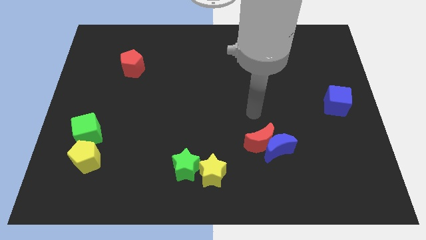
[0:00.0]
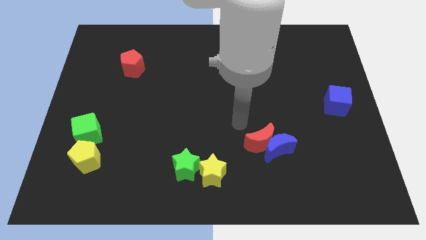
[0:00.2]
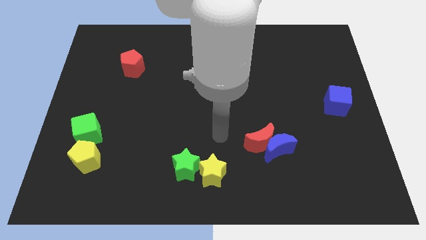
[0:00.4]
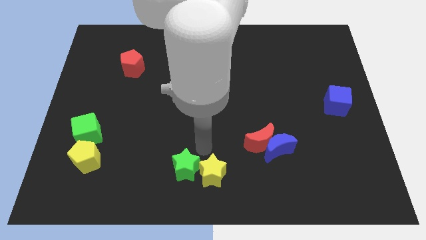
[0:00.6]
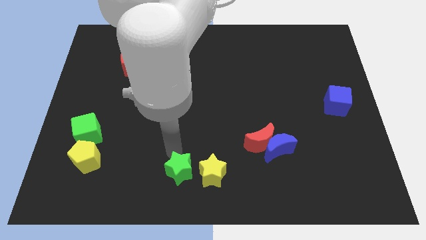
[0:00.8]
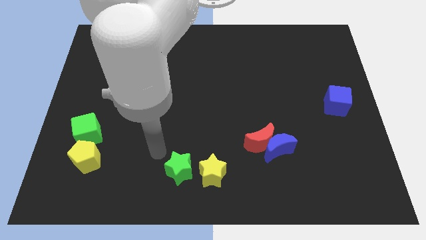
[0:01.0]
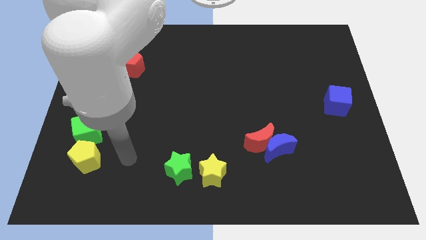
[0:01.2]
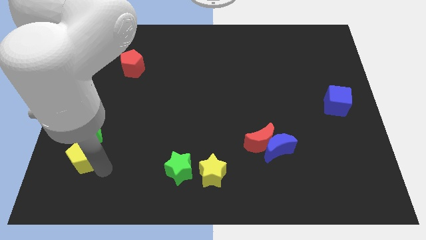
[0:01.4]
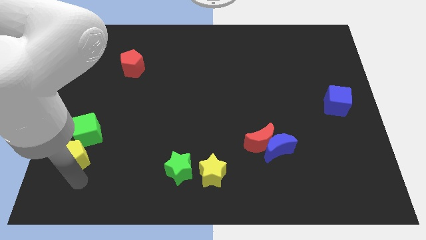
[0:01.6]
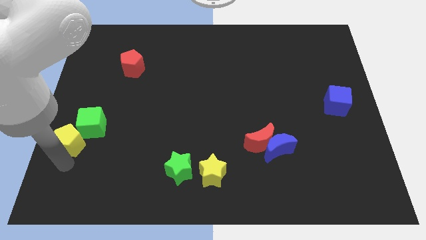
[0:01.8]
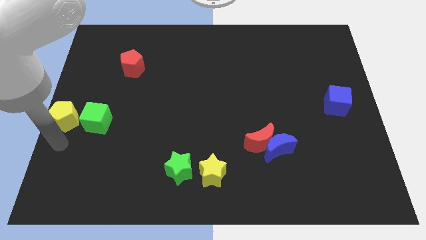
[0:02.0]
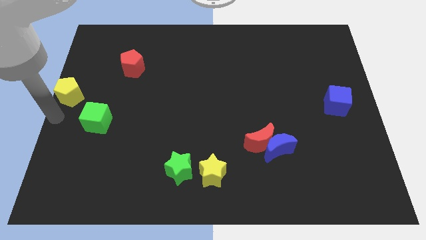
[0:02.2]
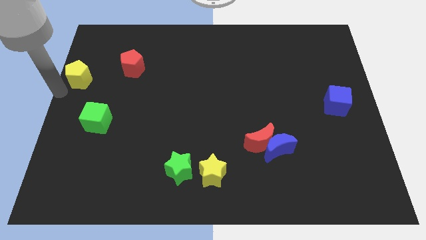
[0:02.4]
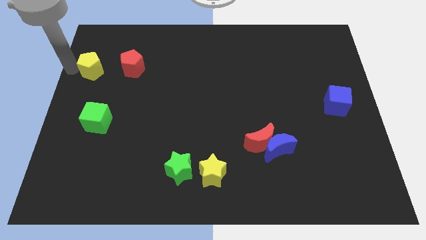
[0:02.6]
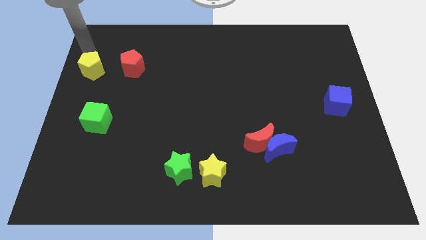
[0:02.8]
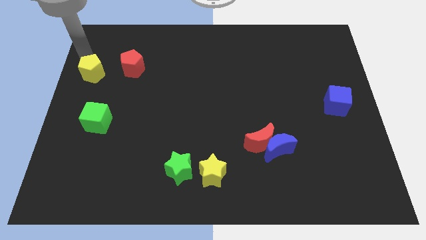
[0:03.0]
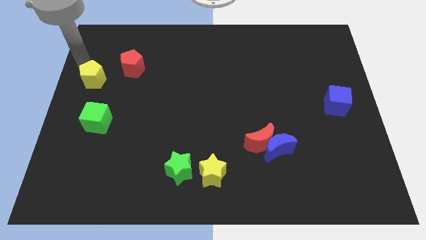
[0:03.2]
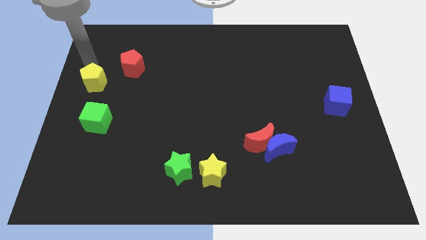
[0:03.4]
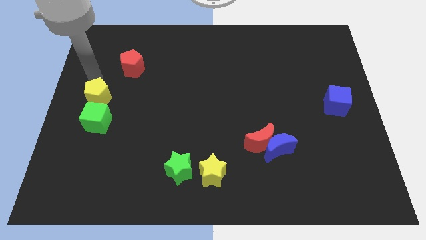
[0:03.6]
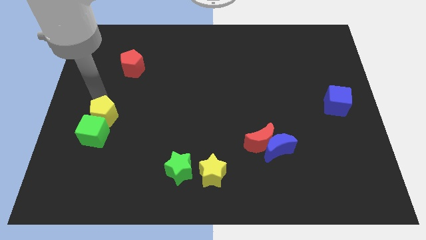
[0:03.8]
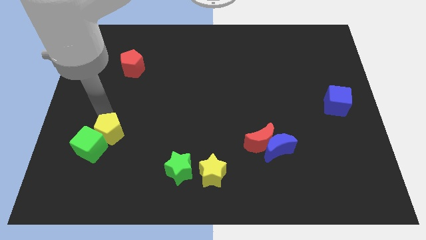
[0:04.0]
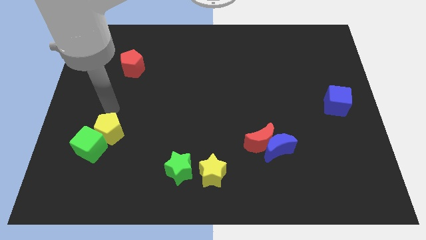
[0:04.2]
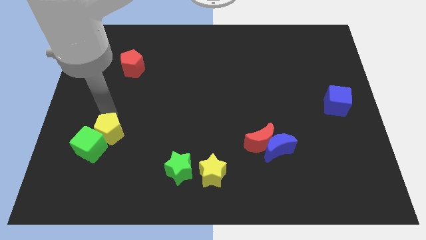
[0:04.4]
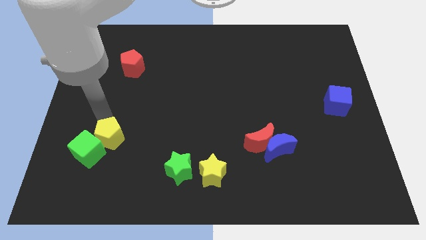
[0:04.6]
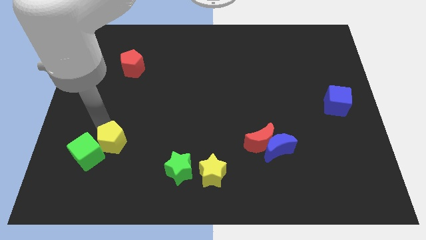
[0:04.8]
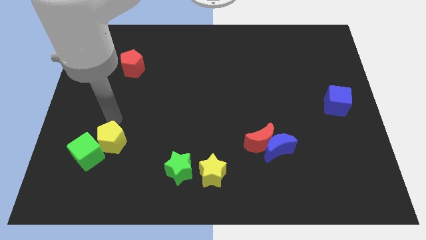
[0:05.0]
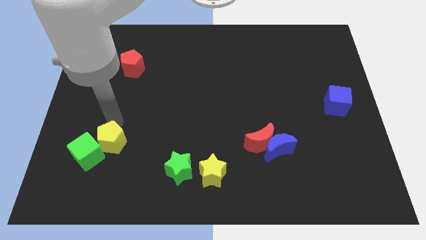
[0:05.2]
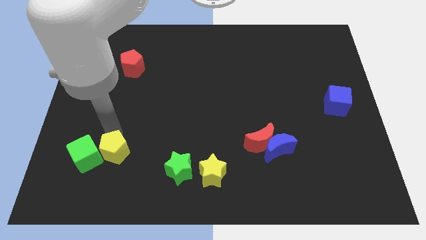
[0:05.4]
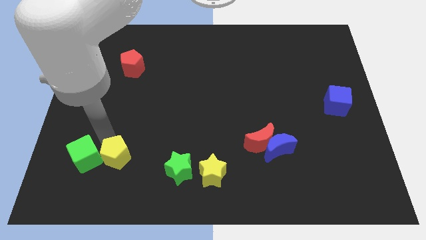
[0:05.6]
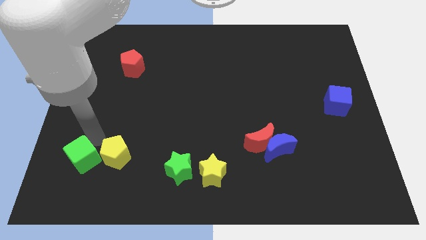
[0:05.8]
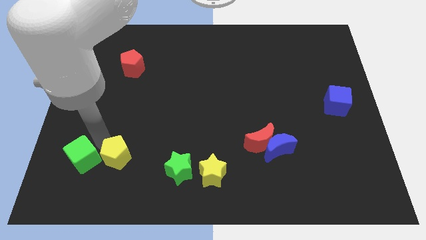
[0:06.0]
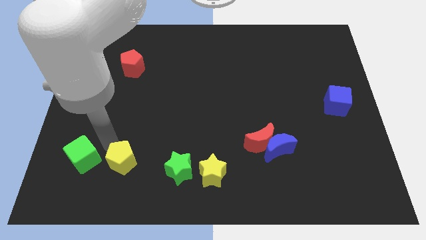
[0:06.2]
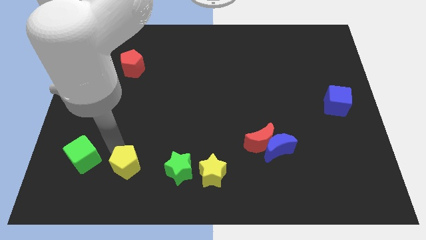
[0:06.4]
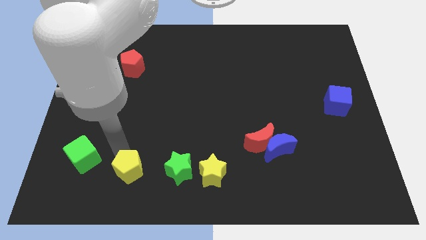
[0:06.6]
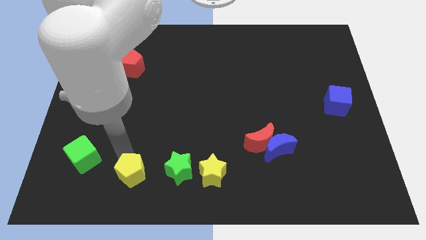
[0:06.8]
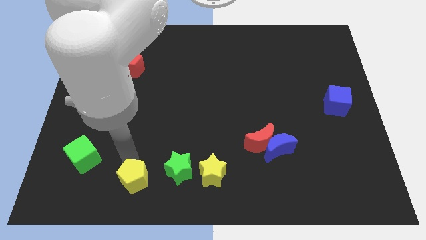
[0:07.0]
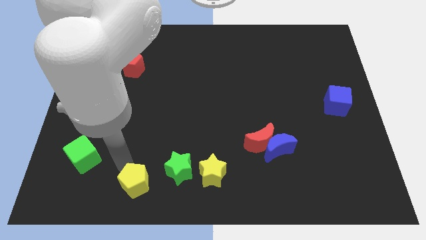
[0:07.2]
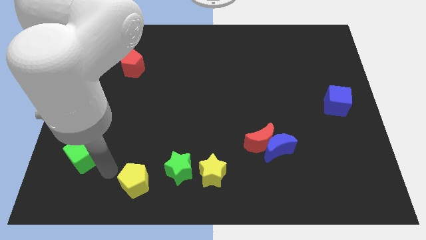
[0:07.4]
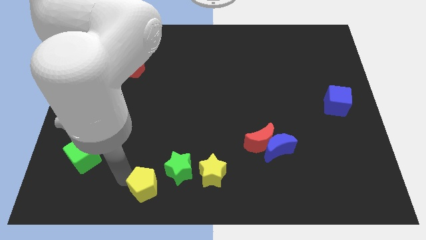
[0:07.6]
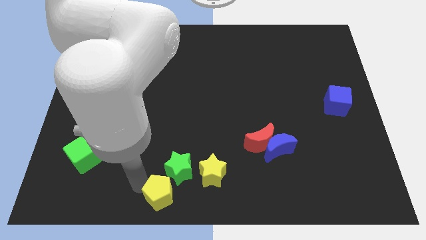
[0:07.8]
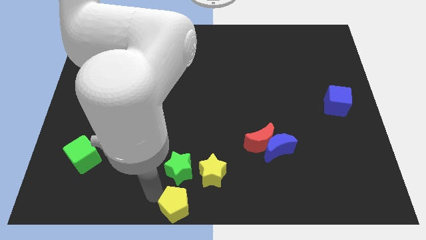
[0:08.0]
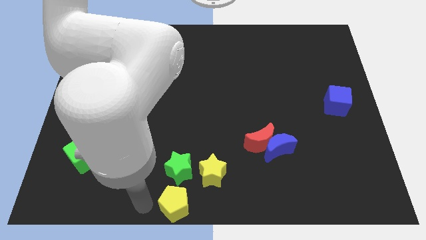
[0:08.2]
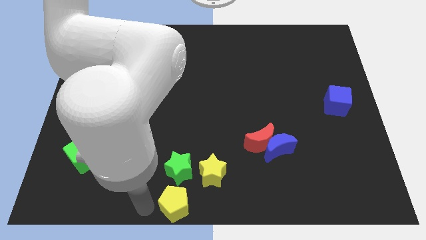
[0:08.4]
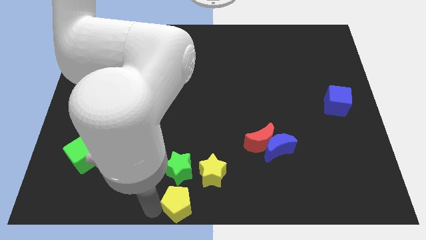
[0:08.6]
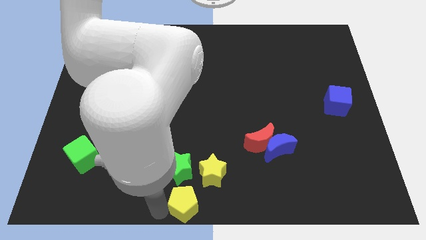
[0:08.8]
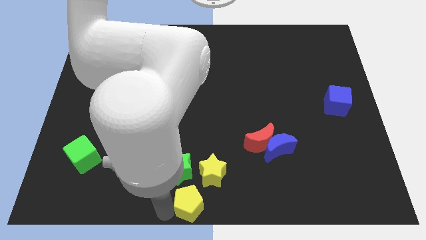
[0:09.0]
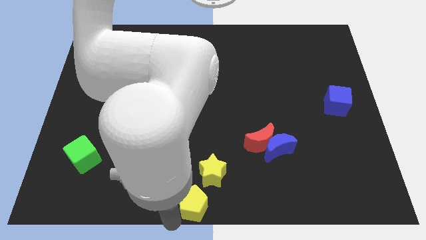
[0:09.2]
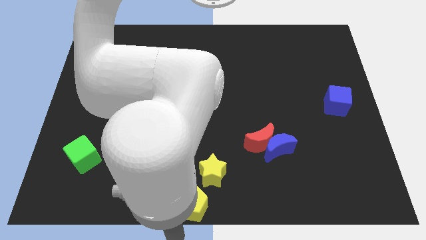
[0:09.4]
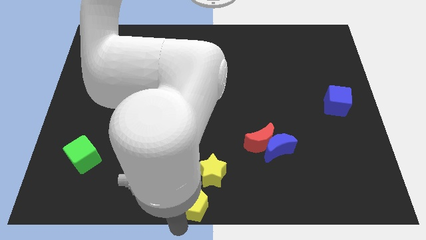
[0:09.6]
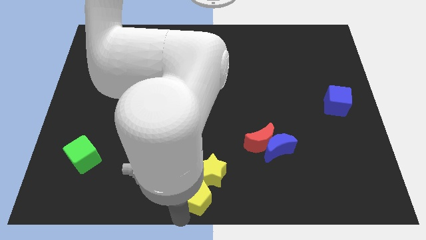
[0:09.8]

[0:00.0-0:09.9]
put the yellow pentagon next to the yellow star

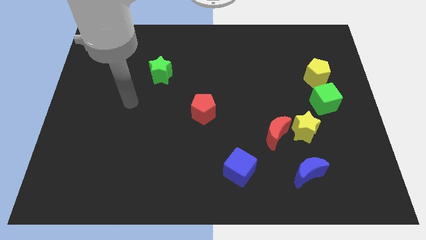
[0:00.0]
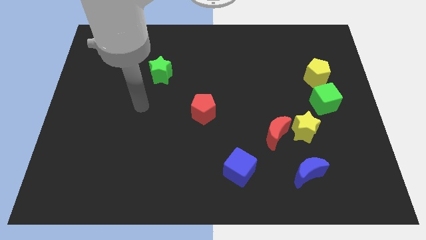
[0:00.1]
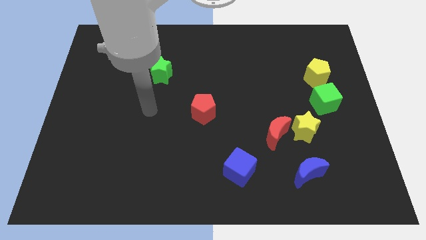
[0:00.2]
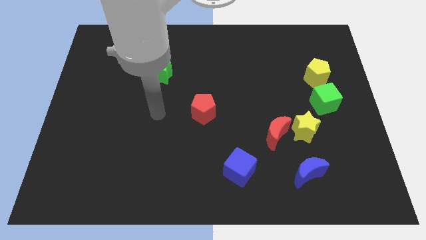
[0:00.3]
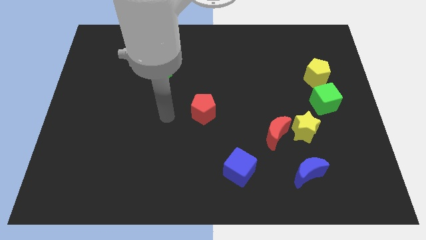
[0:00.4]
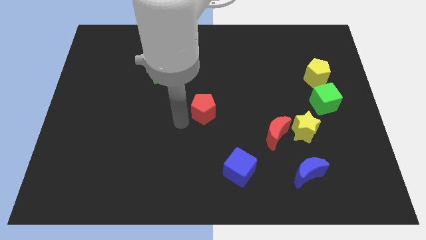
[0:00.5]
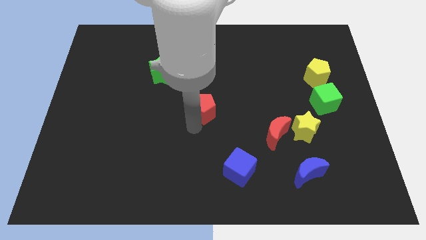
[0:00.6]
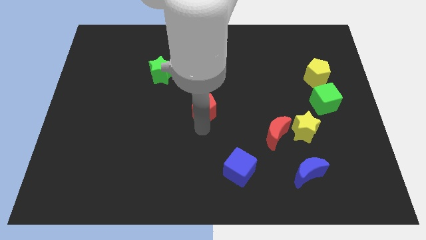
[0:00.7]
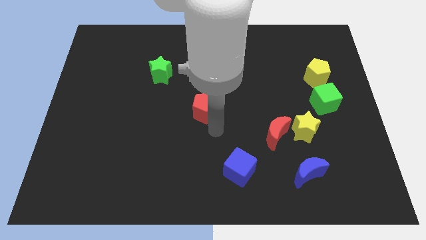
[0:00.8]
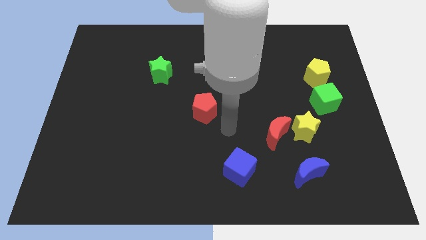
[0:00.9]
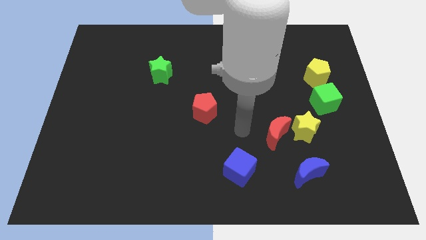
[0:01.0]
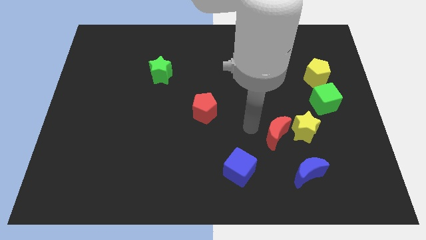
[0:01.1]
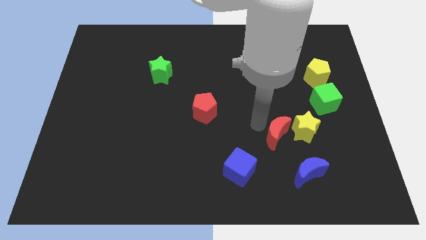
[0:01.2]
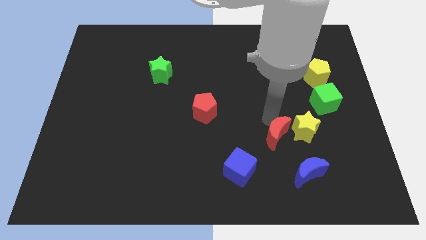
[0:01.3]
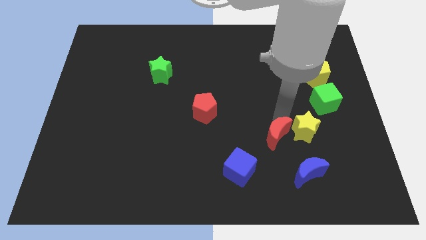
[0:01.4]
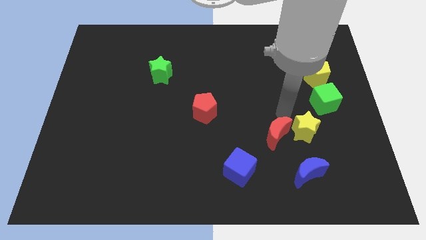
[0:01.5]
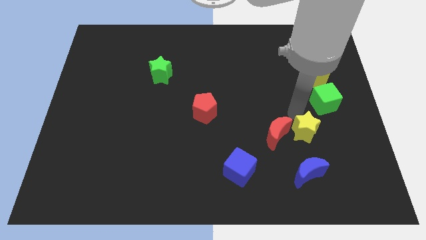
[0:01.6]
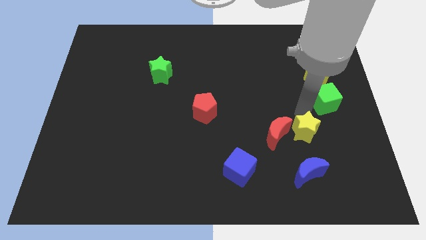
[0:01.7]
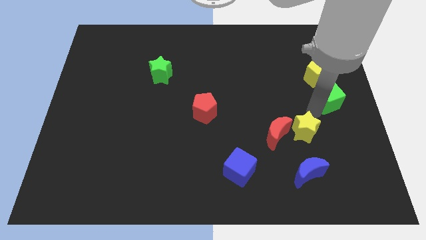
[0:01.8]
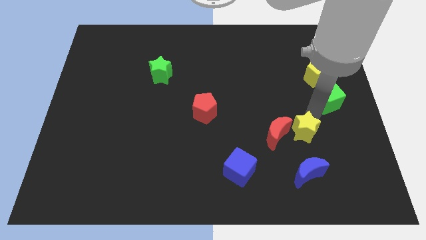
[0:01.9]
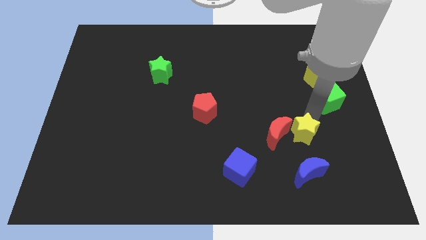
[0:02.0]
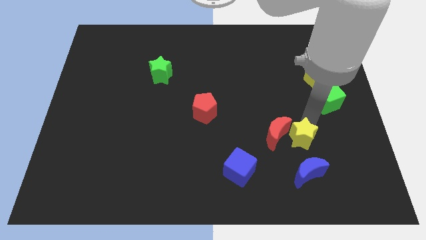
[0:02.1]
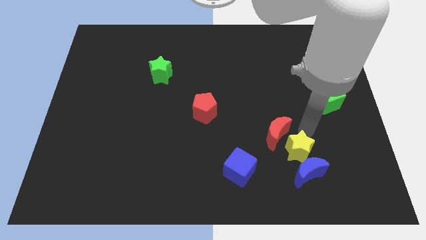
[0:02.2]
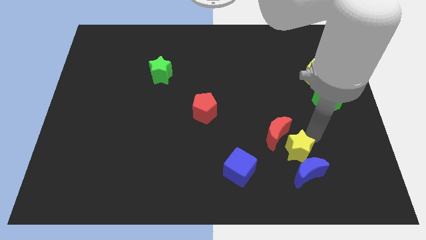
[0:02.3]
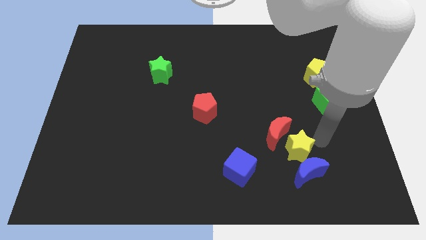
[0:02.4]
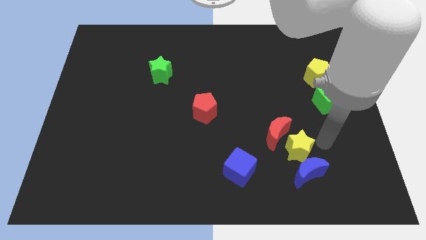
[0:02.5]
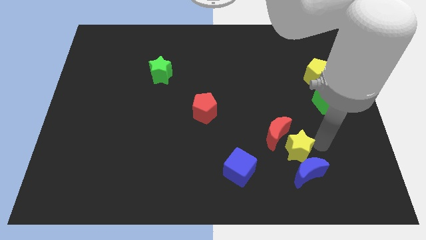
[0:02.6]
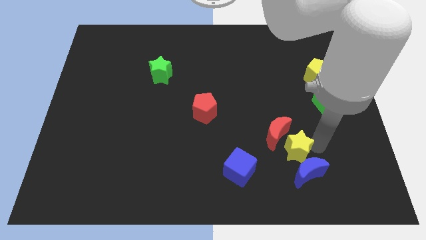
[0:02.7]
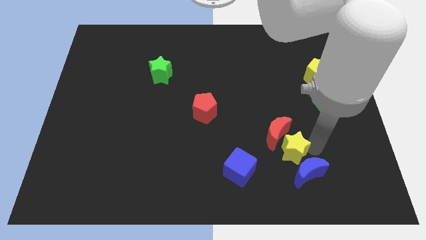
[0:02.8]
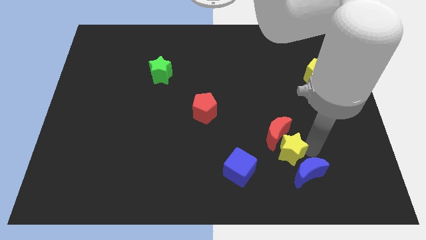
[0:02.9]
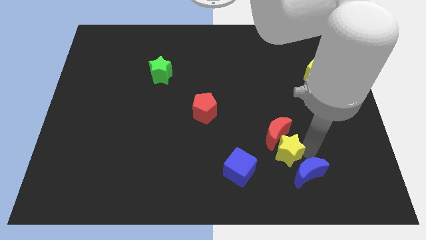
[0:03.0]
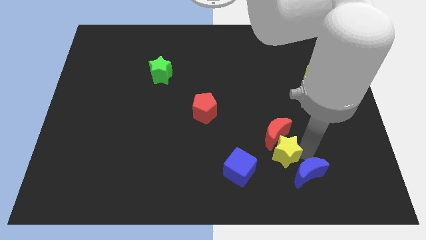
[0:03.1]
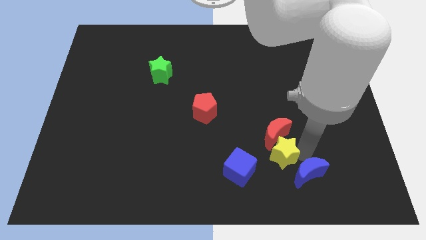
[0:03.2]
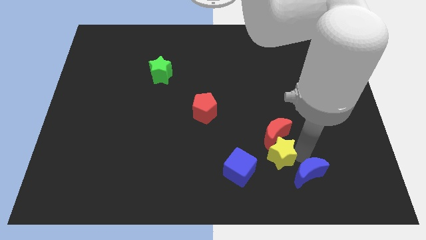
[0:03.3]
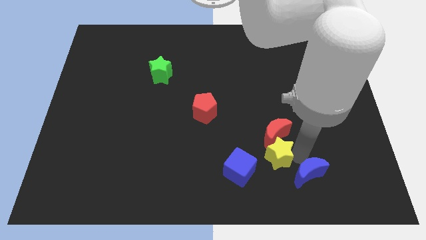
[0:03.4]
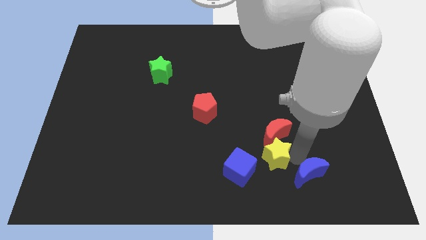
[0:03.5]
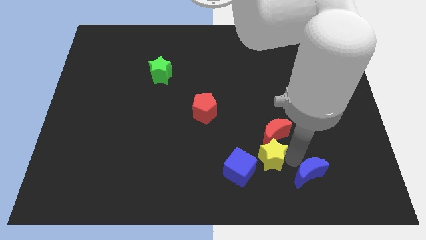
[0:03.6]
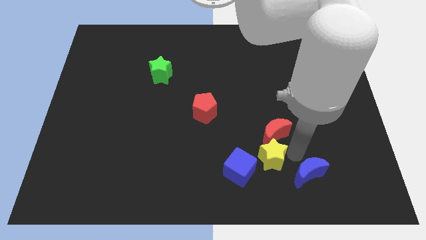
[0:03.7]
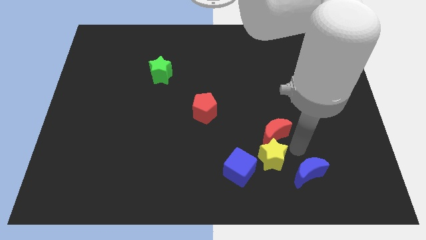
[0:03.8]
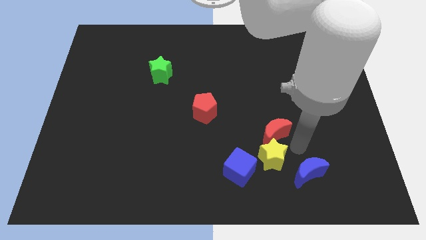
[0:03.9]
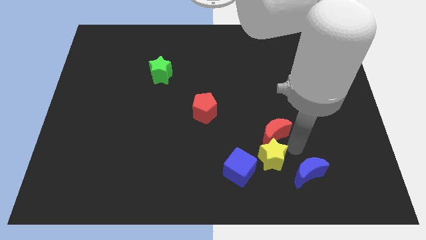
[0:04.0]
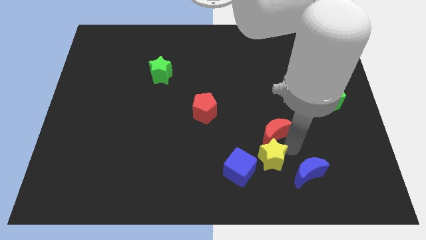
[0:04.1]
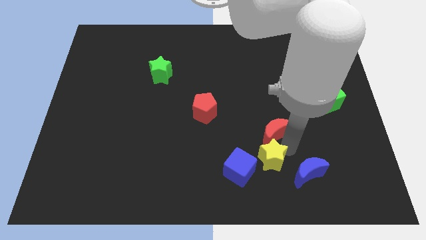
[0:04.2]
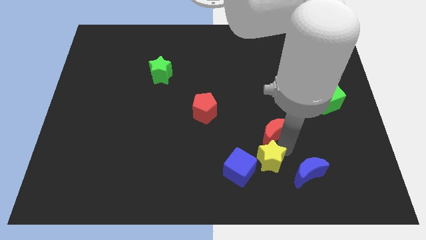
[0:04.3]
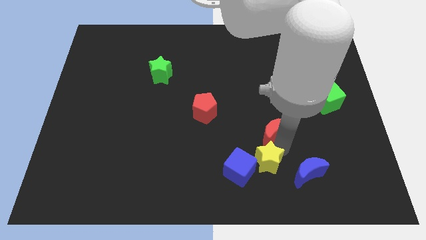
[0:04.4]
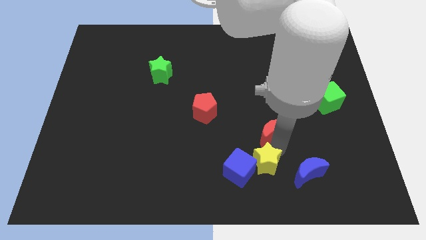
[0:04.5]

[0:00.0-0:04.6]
push the yellow star next to the blue cube
